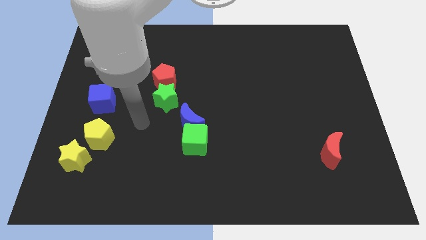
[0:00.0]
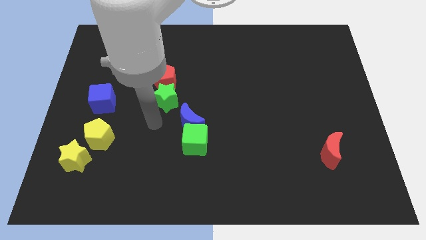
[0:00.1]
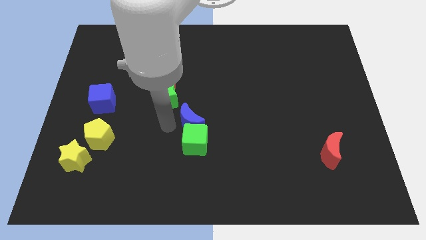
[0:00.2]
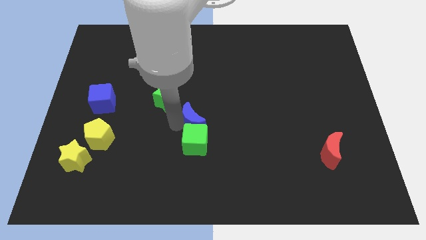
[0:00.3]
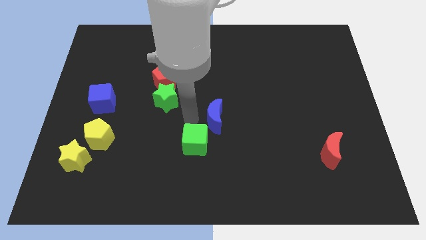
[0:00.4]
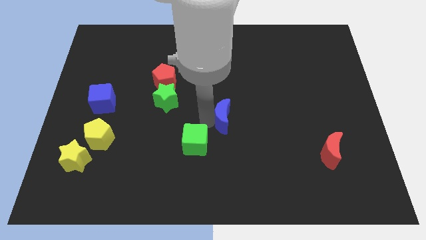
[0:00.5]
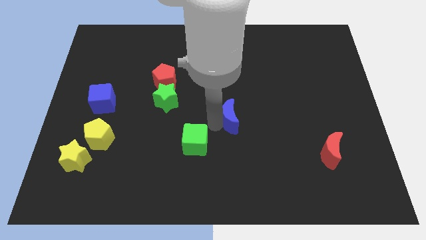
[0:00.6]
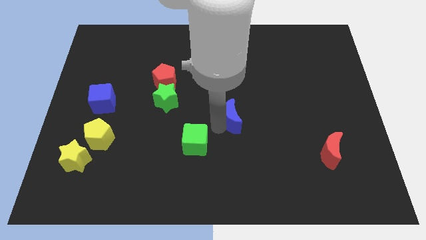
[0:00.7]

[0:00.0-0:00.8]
pull the green cube apart from the blue moon

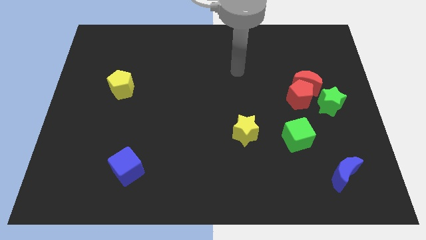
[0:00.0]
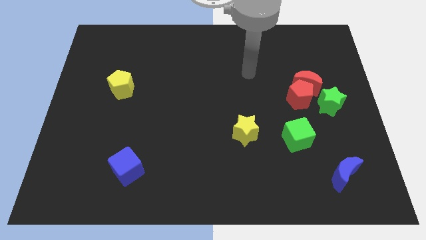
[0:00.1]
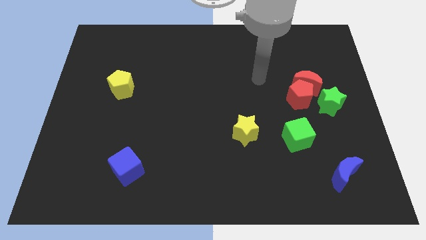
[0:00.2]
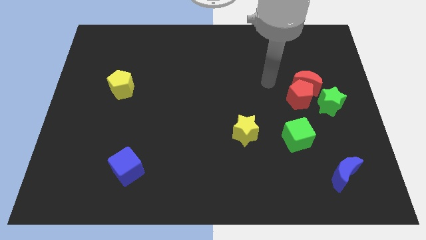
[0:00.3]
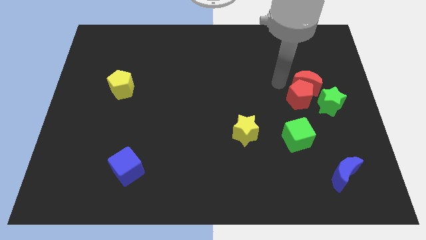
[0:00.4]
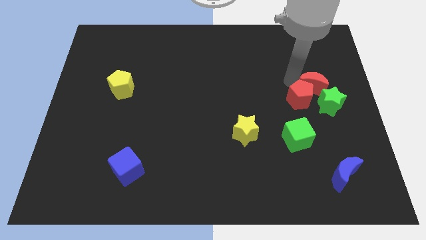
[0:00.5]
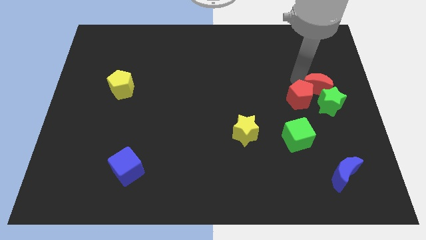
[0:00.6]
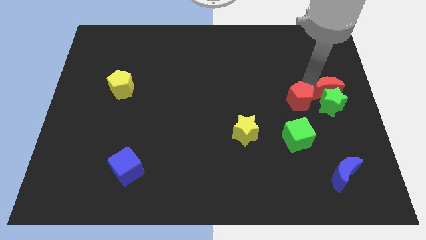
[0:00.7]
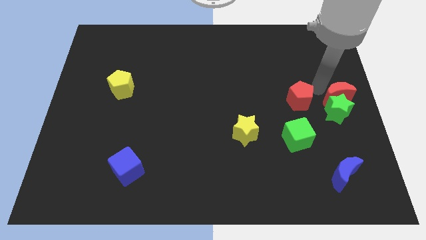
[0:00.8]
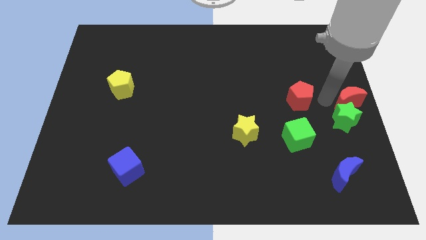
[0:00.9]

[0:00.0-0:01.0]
pull the red pentagon apart from the red moon and green star

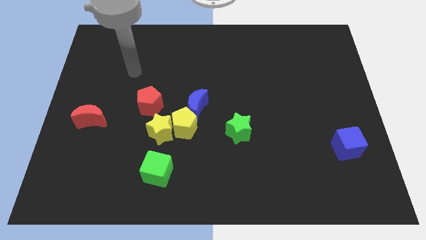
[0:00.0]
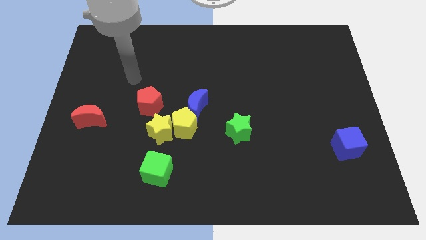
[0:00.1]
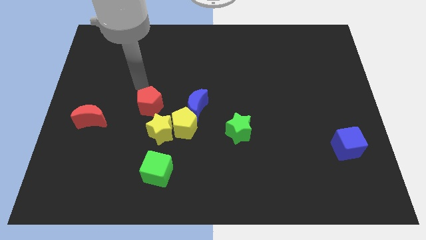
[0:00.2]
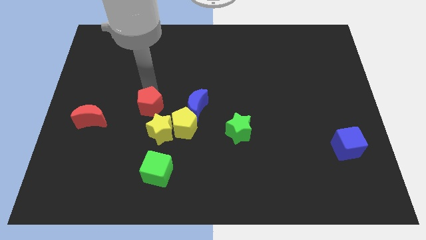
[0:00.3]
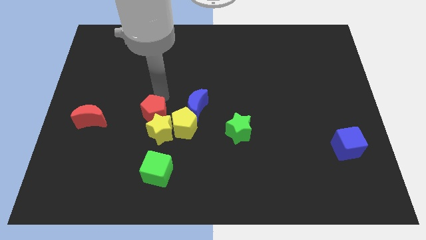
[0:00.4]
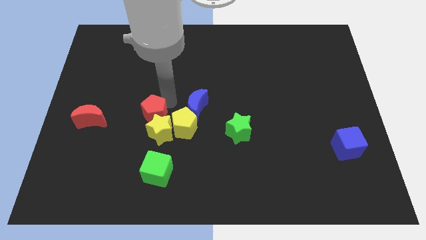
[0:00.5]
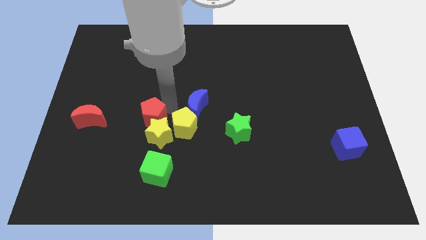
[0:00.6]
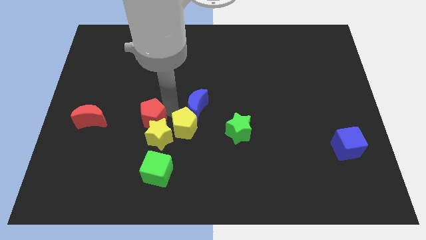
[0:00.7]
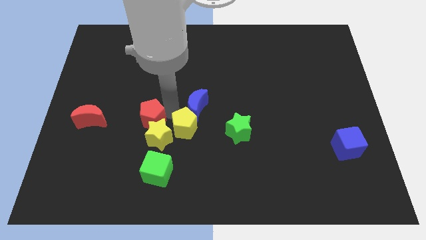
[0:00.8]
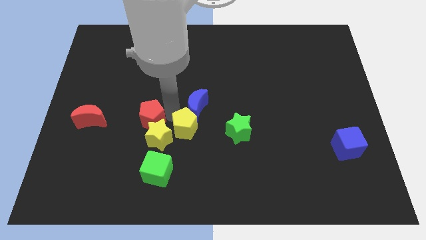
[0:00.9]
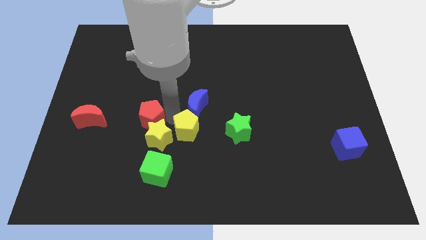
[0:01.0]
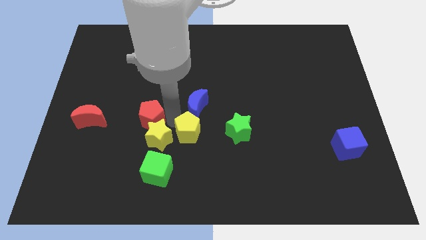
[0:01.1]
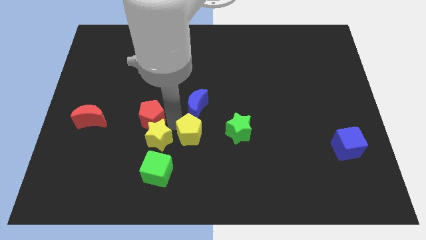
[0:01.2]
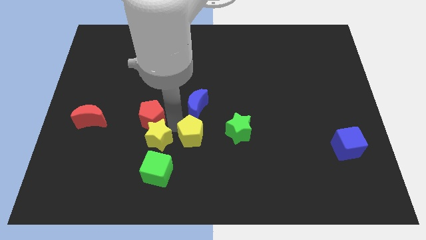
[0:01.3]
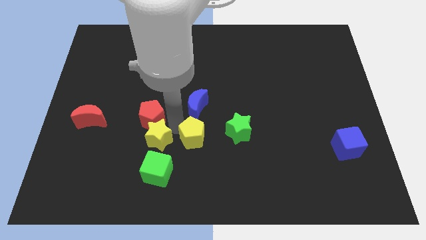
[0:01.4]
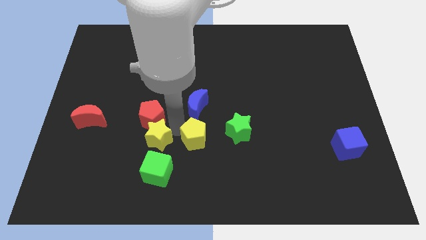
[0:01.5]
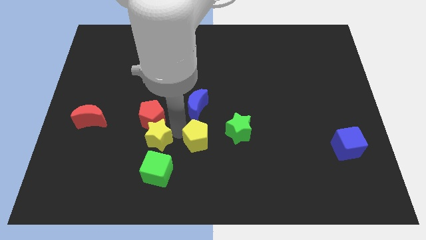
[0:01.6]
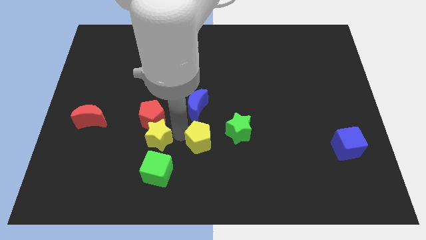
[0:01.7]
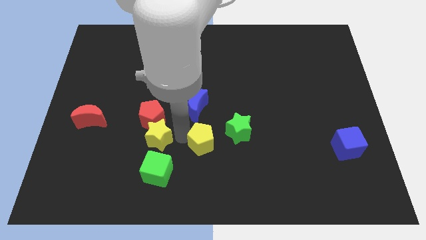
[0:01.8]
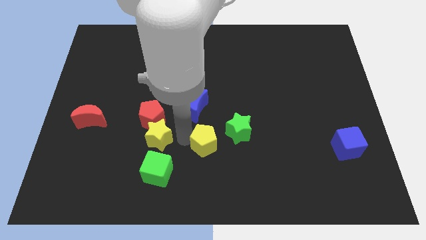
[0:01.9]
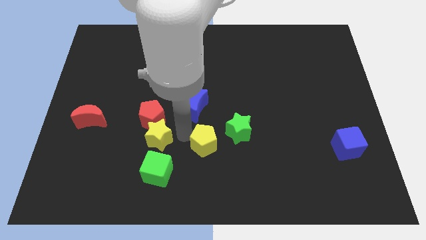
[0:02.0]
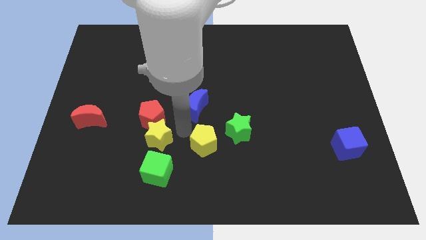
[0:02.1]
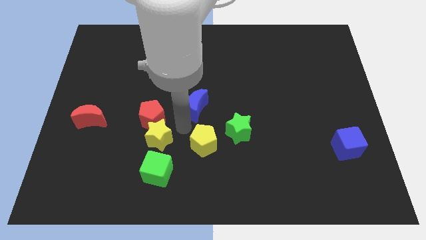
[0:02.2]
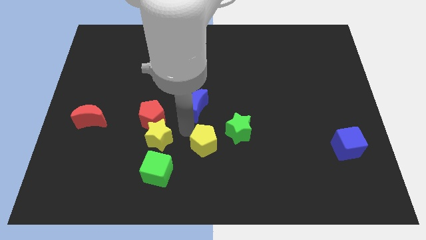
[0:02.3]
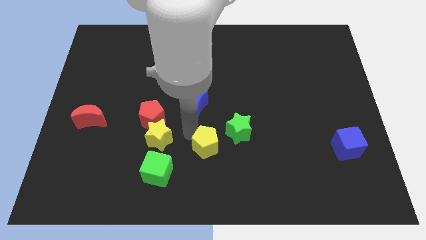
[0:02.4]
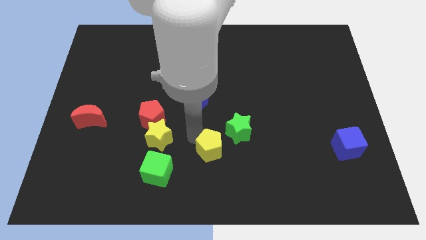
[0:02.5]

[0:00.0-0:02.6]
pull the yellow pentagon apart from the yellow star and blue moon

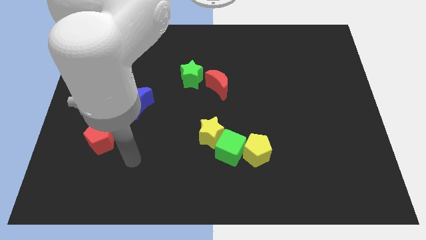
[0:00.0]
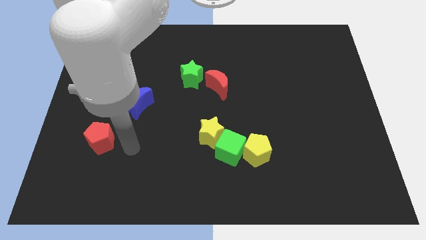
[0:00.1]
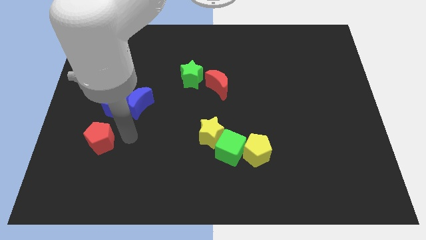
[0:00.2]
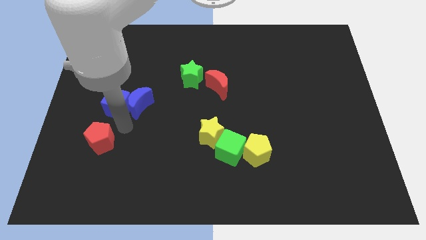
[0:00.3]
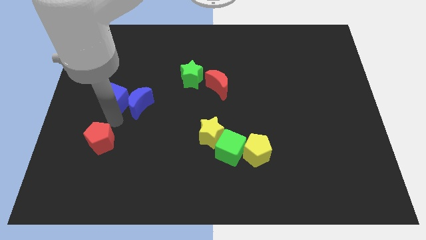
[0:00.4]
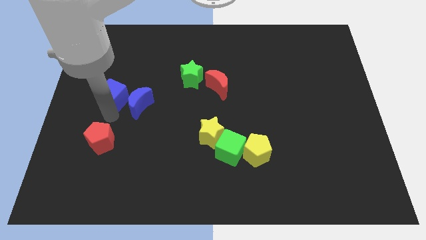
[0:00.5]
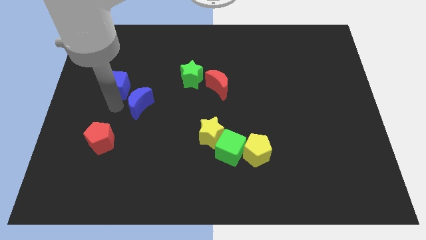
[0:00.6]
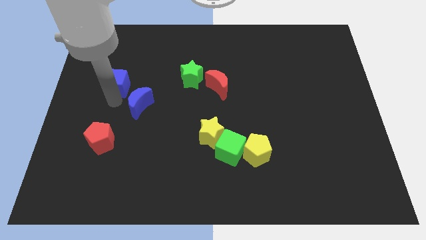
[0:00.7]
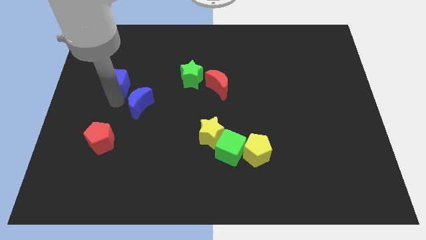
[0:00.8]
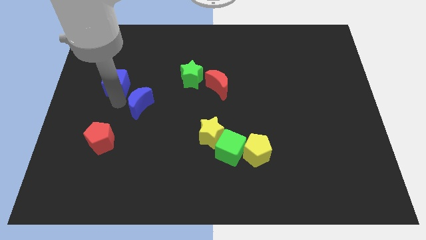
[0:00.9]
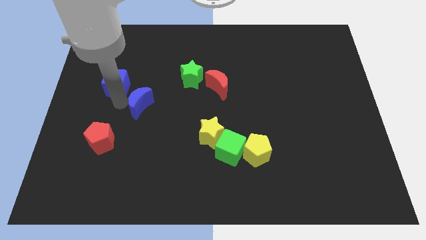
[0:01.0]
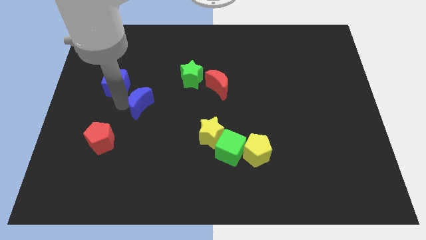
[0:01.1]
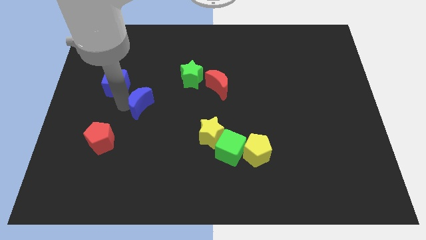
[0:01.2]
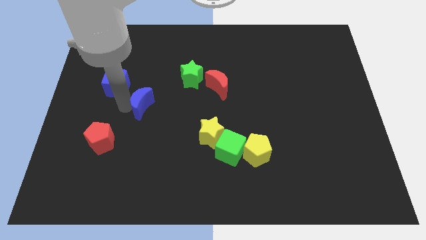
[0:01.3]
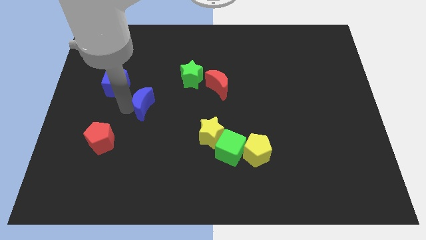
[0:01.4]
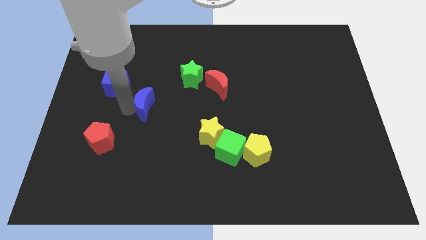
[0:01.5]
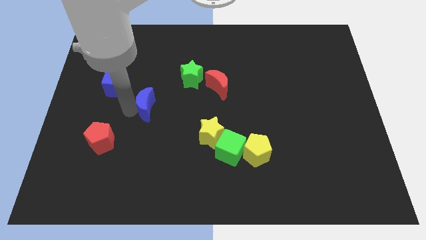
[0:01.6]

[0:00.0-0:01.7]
separate the blue moon from the blue cube

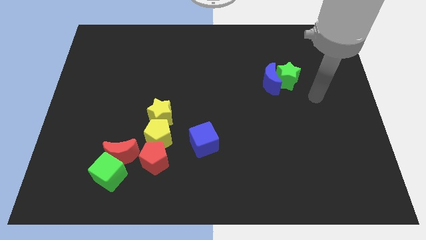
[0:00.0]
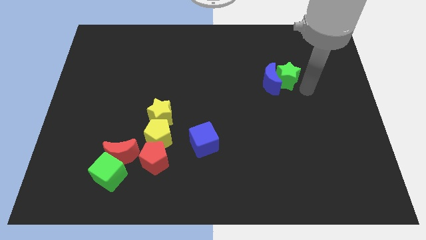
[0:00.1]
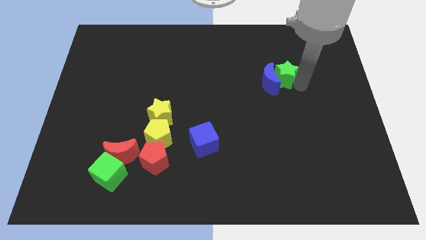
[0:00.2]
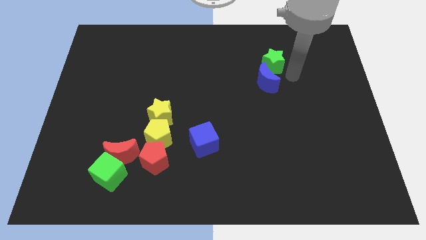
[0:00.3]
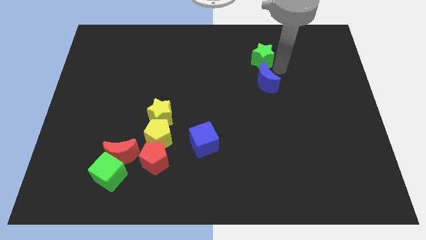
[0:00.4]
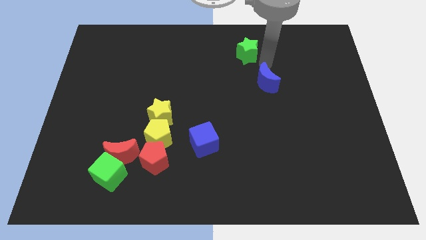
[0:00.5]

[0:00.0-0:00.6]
pull the blue moon apart from the green star

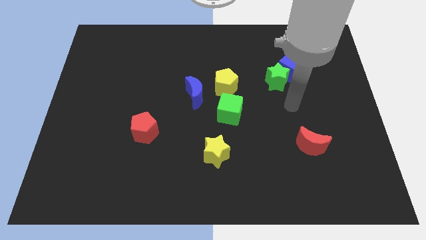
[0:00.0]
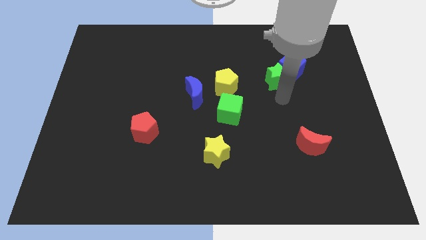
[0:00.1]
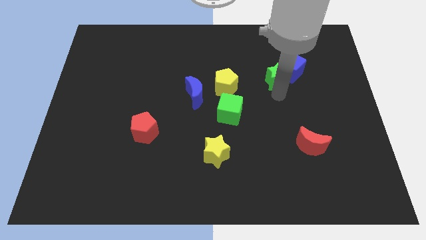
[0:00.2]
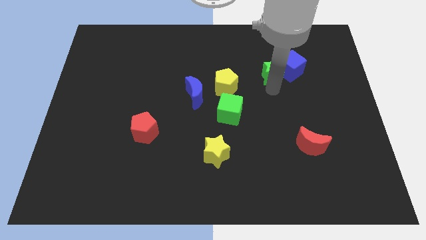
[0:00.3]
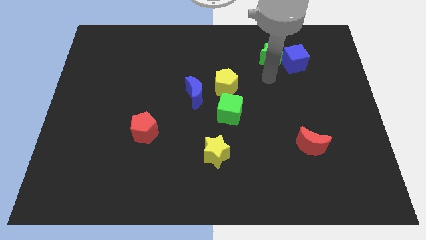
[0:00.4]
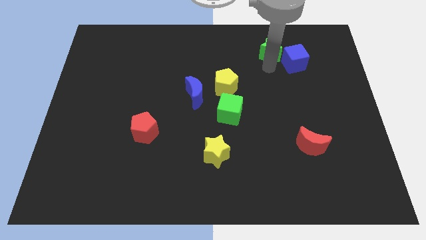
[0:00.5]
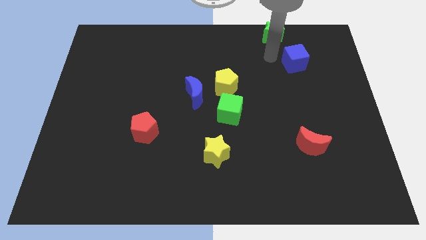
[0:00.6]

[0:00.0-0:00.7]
move the blue cube away from the green star

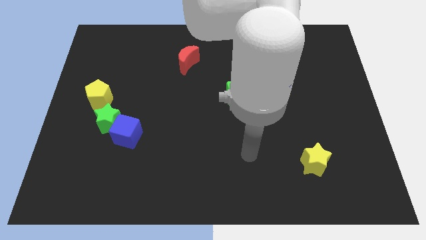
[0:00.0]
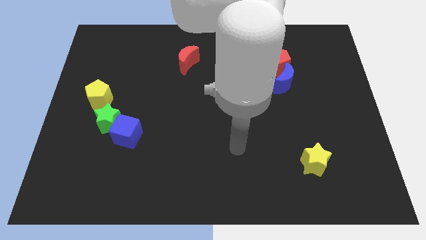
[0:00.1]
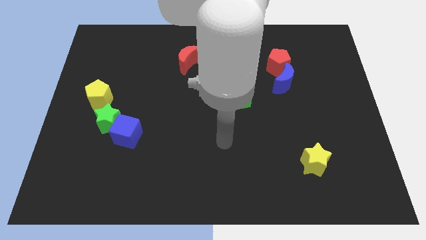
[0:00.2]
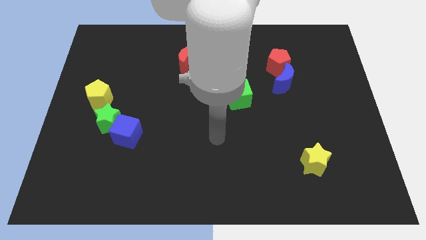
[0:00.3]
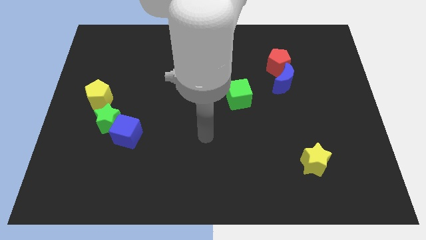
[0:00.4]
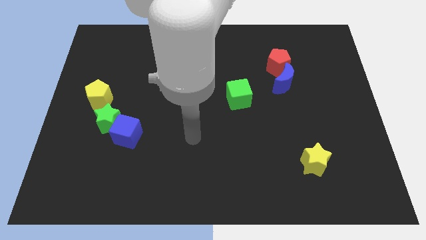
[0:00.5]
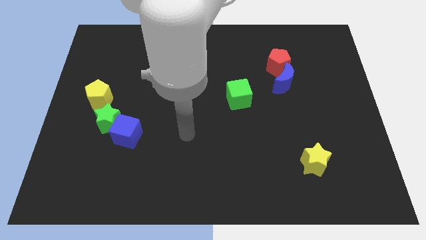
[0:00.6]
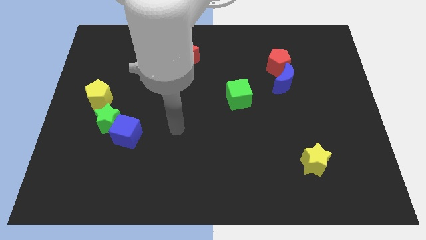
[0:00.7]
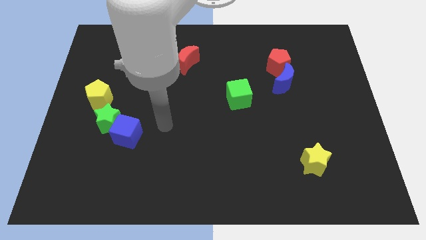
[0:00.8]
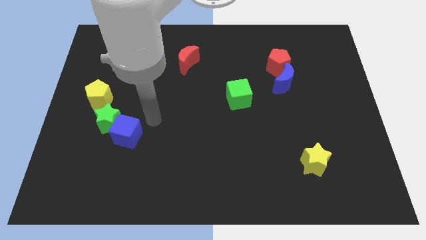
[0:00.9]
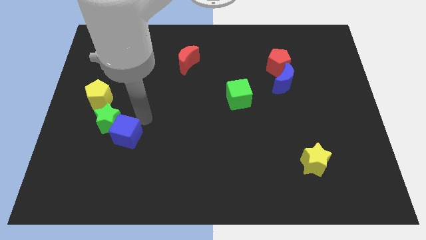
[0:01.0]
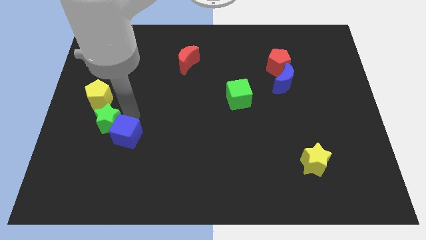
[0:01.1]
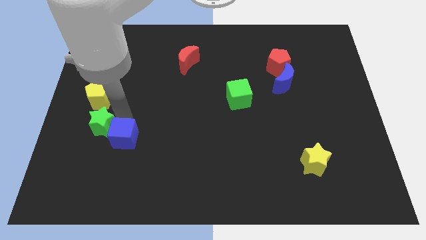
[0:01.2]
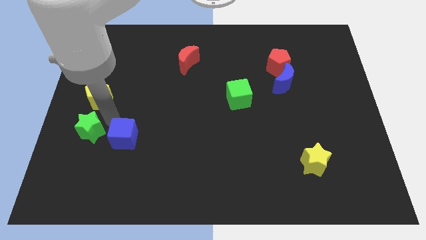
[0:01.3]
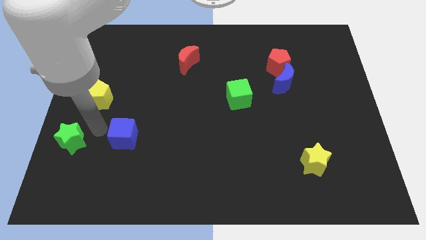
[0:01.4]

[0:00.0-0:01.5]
separate the blue cube from the green star

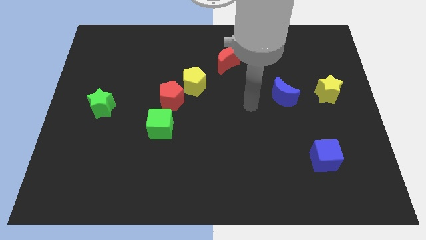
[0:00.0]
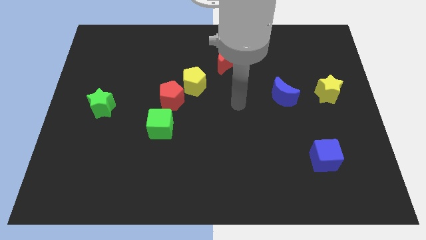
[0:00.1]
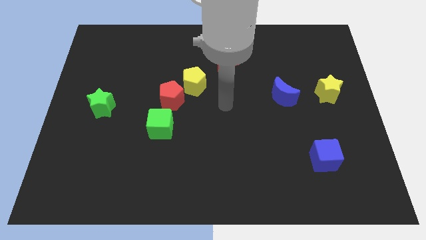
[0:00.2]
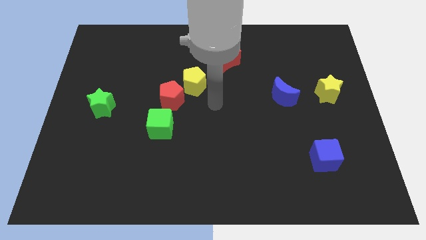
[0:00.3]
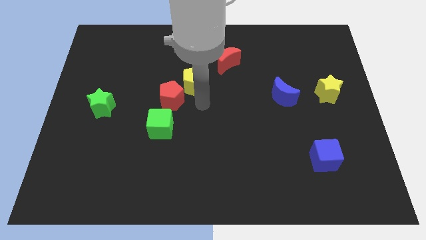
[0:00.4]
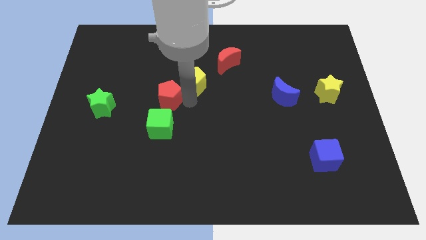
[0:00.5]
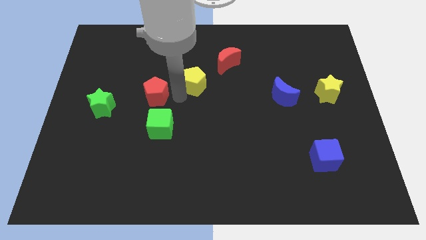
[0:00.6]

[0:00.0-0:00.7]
move the yellow pentagon away from the red pentagon
